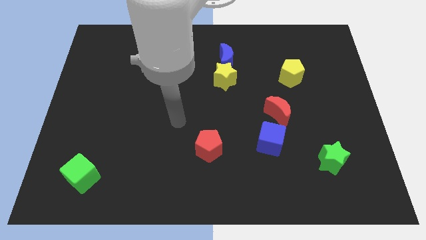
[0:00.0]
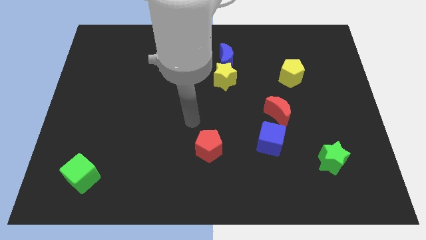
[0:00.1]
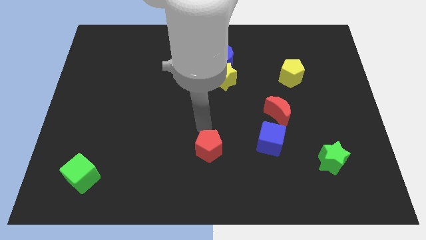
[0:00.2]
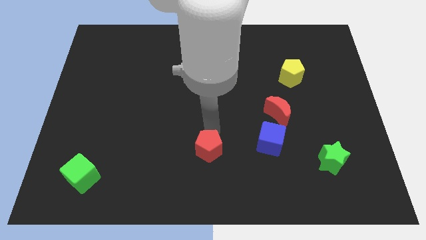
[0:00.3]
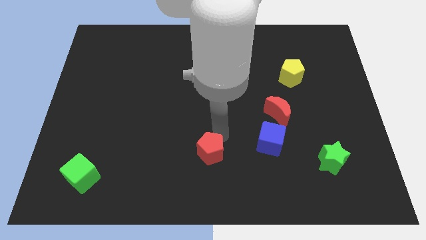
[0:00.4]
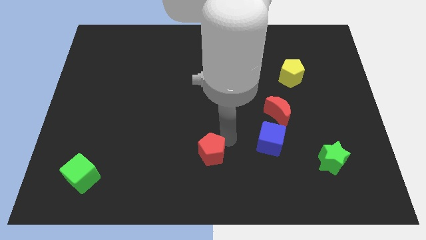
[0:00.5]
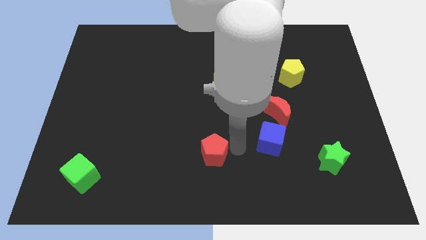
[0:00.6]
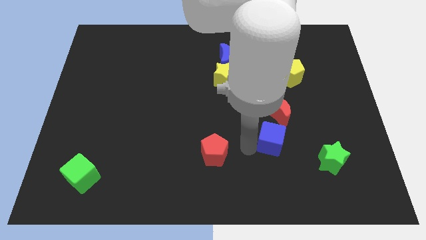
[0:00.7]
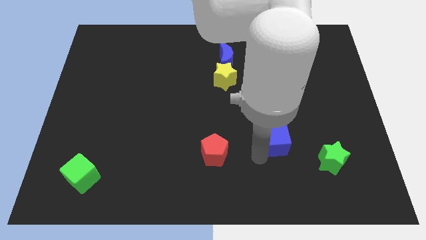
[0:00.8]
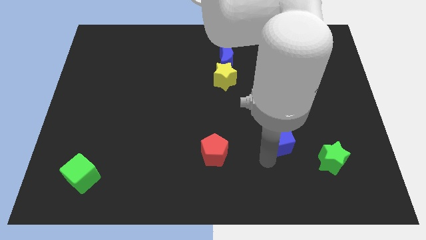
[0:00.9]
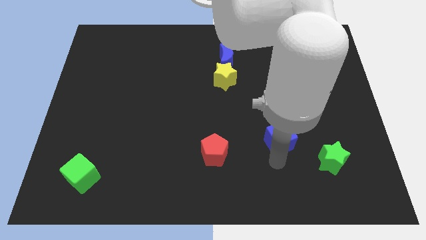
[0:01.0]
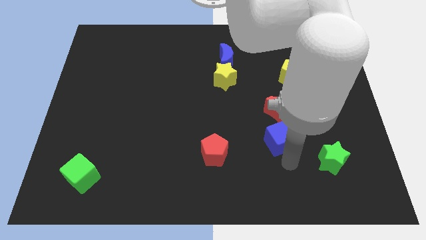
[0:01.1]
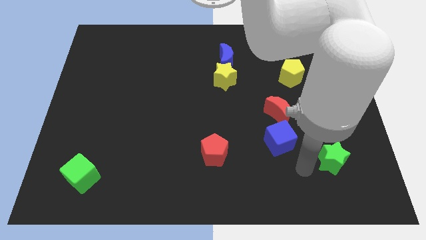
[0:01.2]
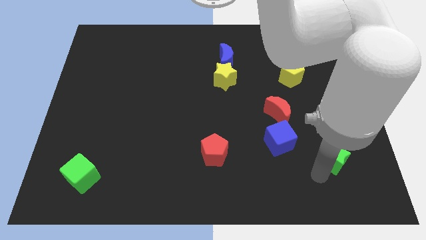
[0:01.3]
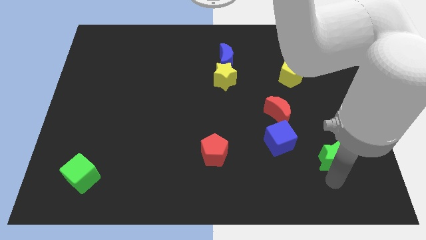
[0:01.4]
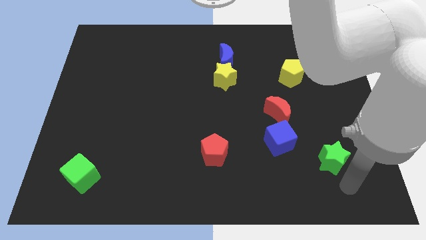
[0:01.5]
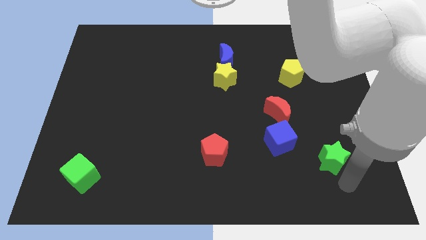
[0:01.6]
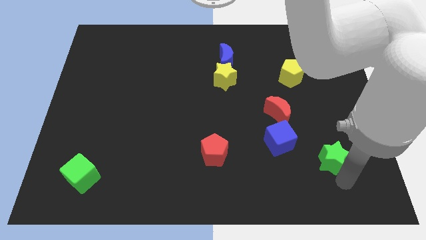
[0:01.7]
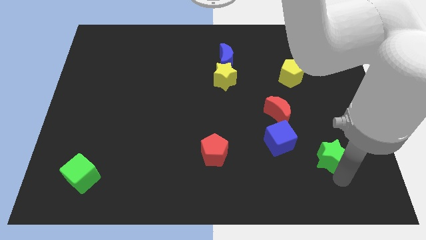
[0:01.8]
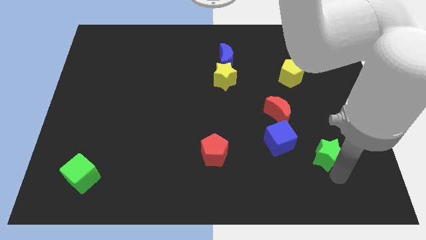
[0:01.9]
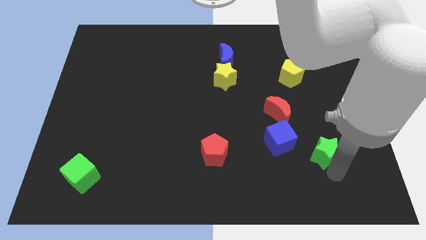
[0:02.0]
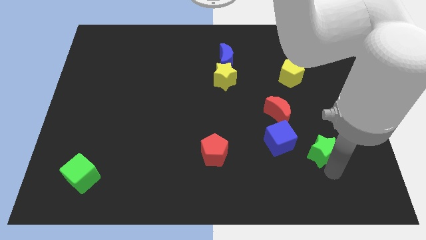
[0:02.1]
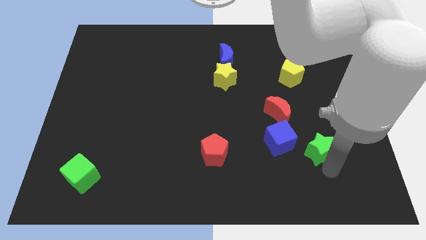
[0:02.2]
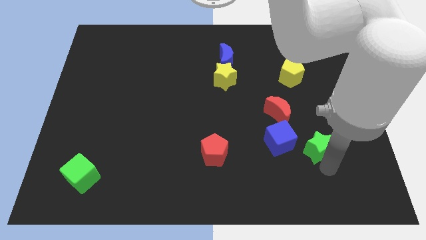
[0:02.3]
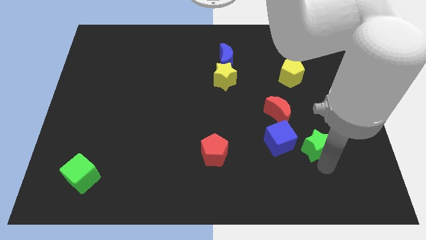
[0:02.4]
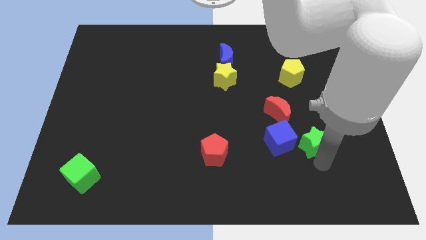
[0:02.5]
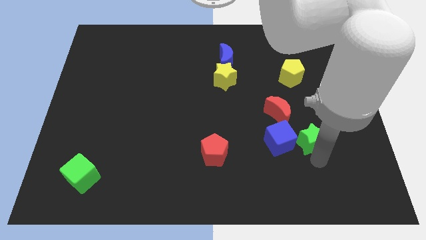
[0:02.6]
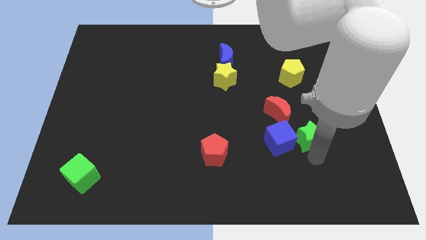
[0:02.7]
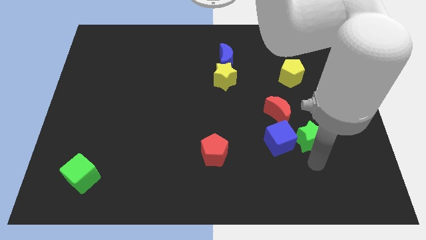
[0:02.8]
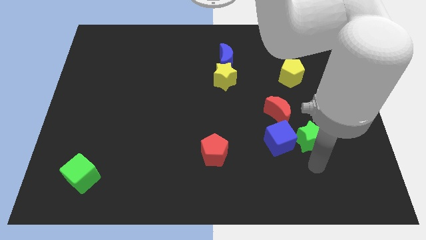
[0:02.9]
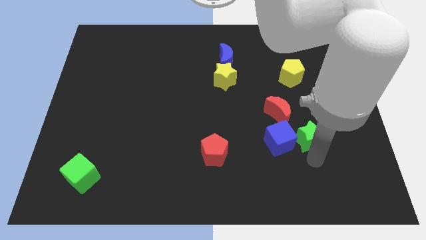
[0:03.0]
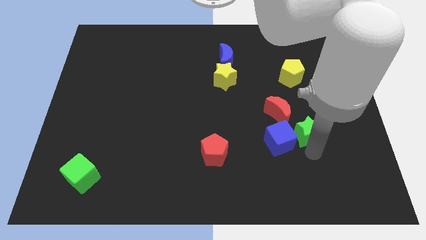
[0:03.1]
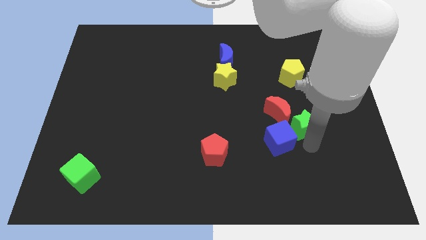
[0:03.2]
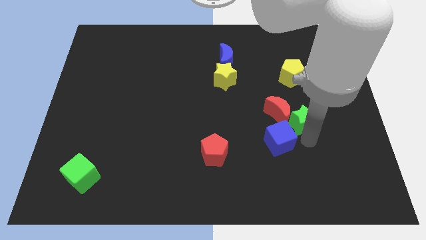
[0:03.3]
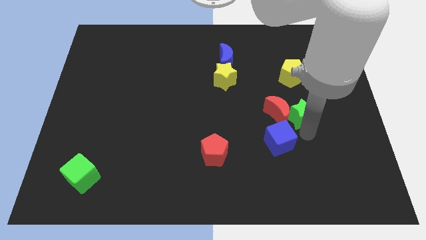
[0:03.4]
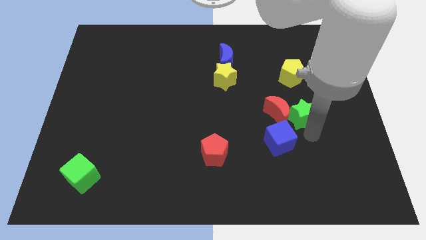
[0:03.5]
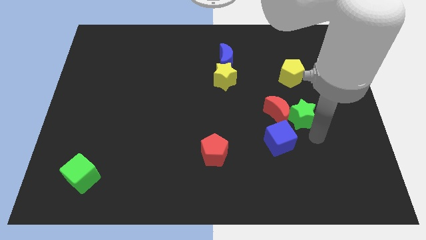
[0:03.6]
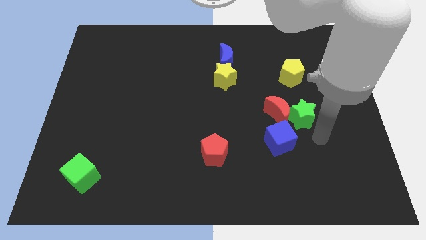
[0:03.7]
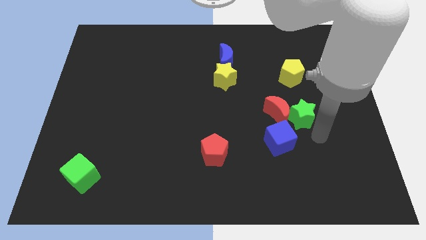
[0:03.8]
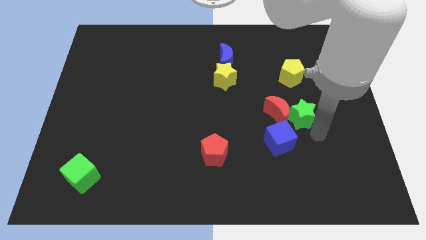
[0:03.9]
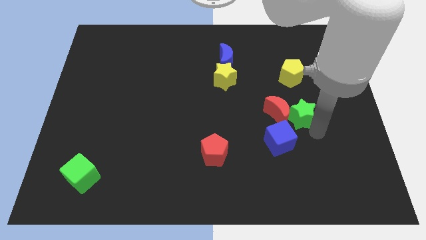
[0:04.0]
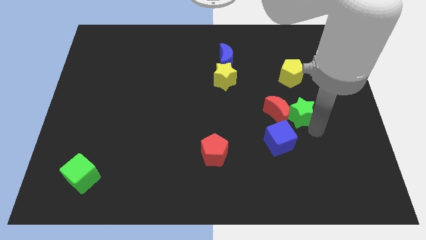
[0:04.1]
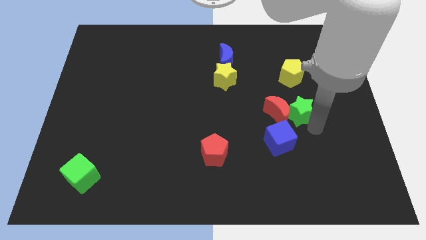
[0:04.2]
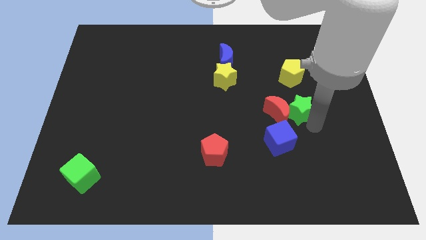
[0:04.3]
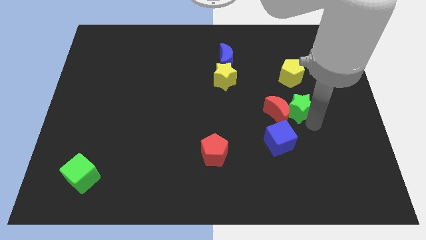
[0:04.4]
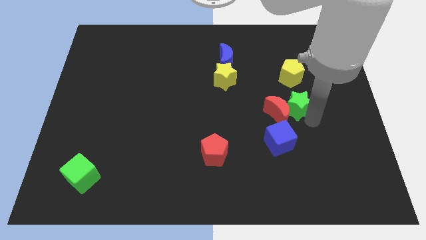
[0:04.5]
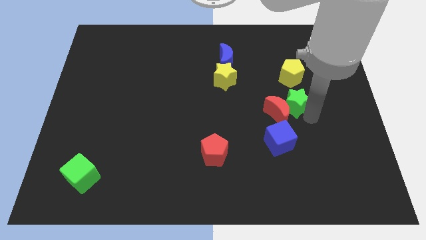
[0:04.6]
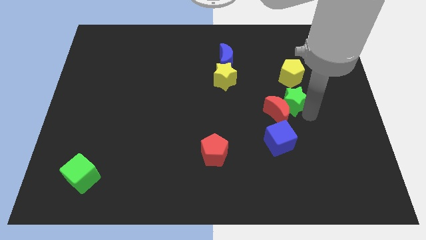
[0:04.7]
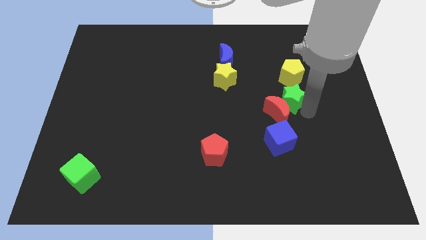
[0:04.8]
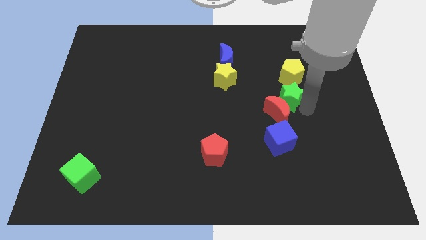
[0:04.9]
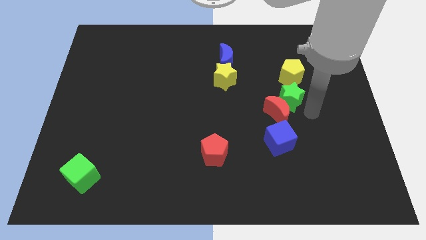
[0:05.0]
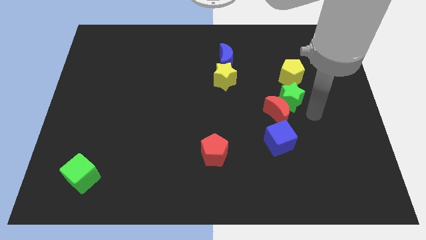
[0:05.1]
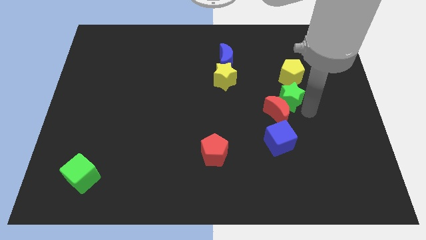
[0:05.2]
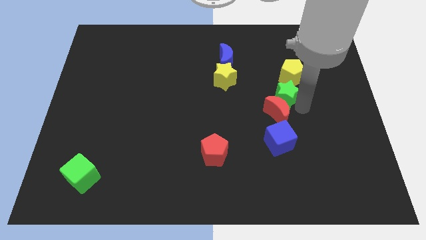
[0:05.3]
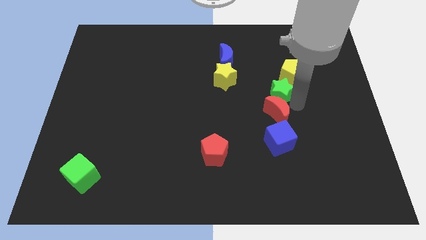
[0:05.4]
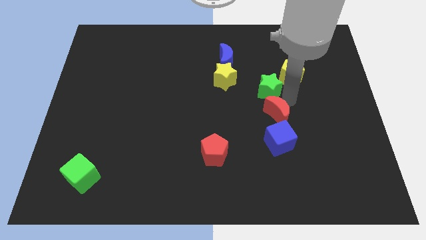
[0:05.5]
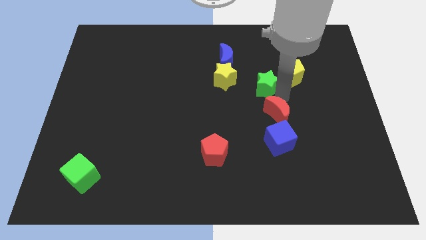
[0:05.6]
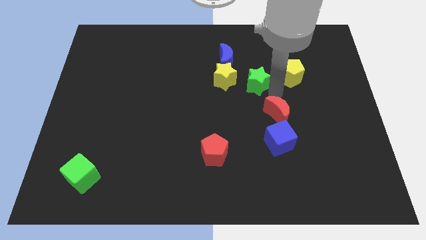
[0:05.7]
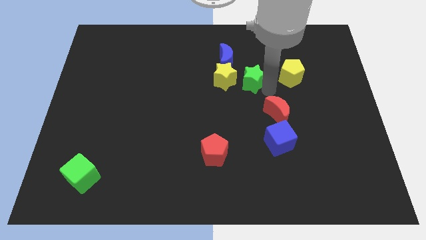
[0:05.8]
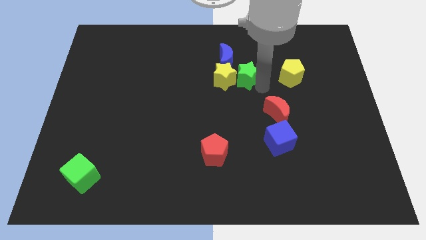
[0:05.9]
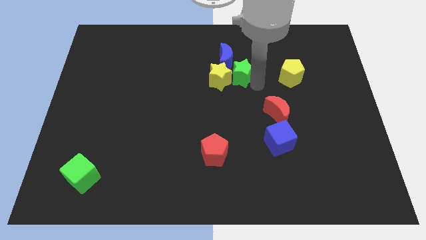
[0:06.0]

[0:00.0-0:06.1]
push the green star to the blue moon

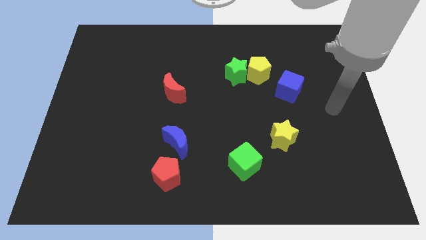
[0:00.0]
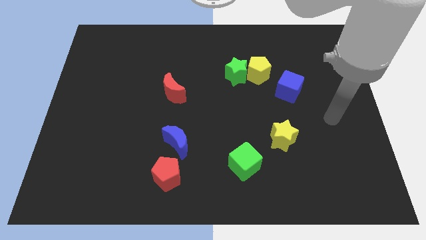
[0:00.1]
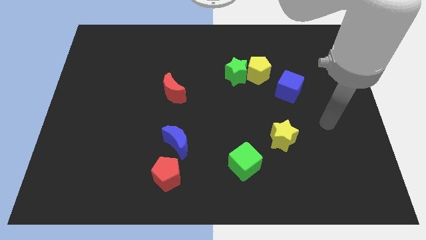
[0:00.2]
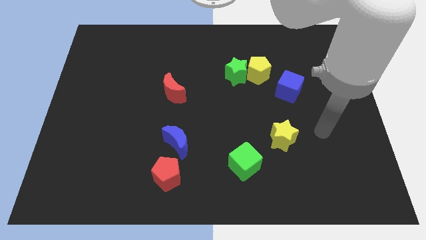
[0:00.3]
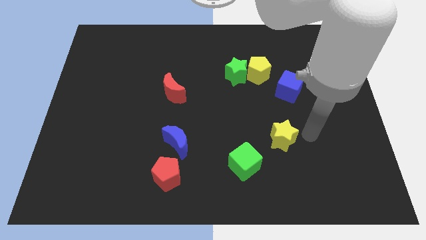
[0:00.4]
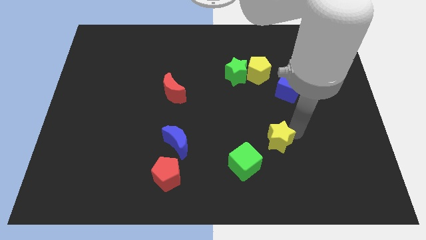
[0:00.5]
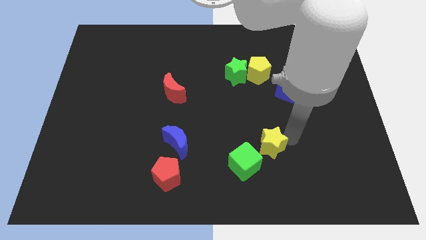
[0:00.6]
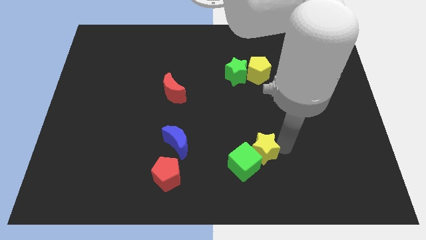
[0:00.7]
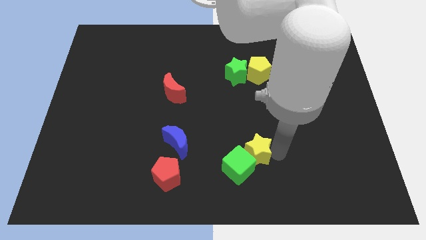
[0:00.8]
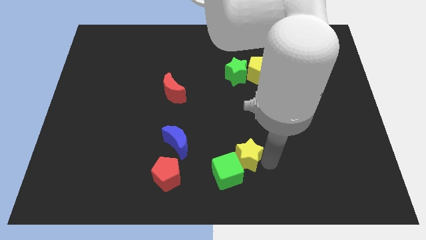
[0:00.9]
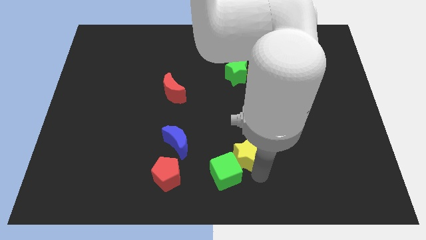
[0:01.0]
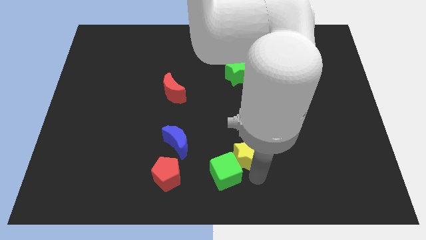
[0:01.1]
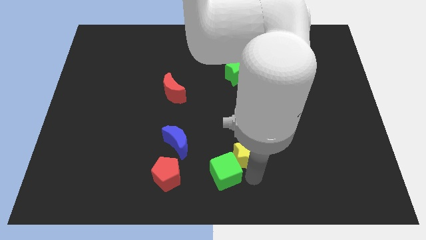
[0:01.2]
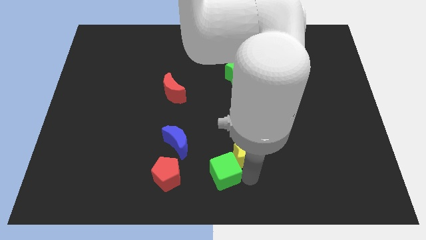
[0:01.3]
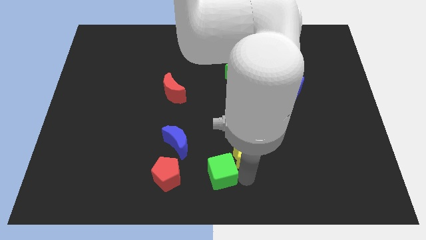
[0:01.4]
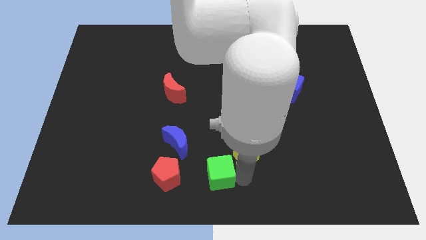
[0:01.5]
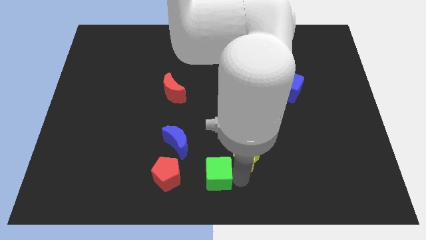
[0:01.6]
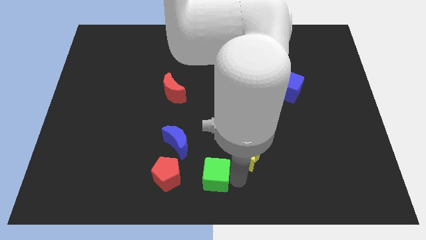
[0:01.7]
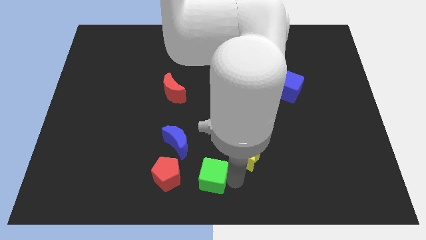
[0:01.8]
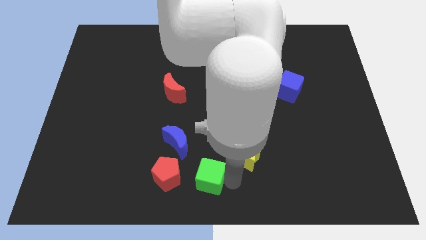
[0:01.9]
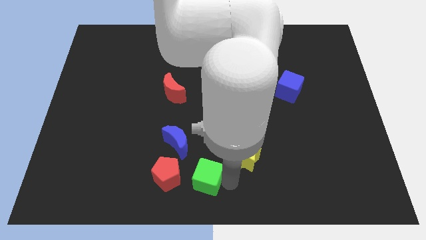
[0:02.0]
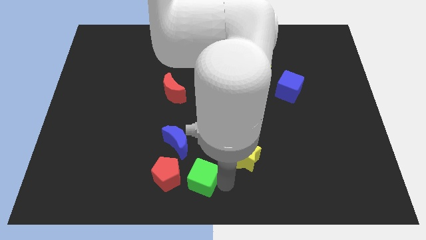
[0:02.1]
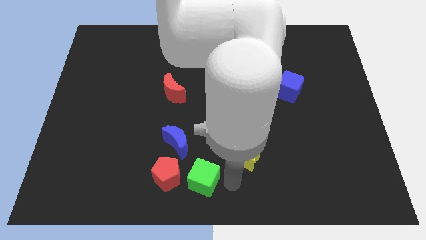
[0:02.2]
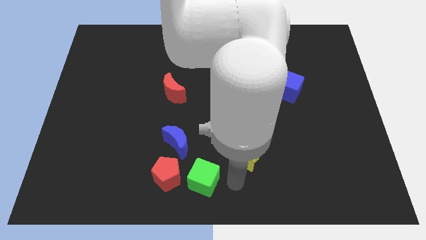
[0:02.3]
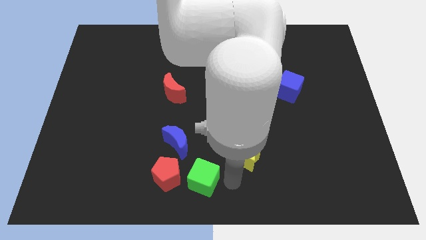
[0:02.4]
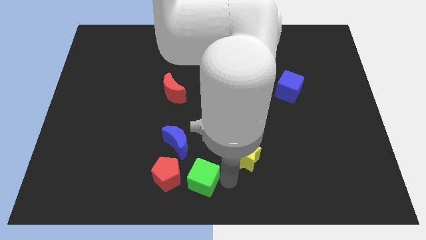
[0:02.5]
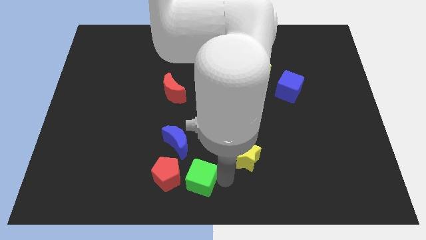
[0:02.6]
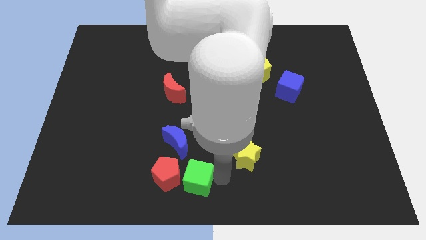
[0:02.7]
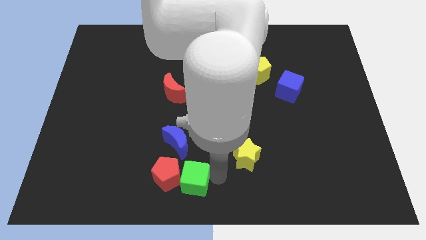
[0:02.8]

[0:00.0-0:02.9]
put the green cube towards the red pentagon
